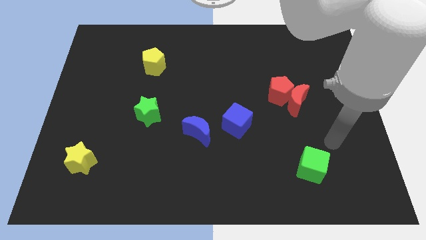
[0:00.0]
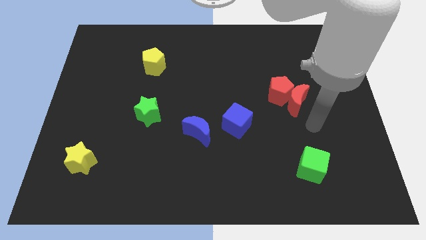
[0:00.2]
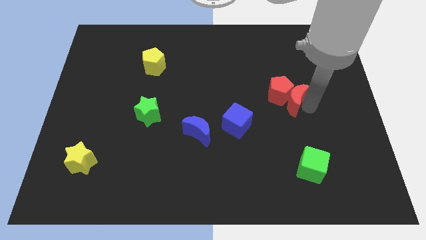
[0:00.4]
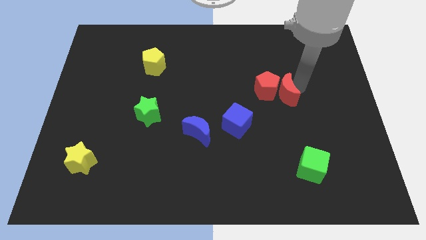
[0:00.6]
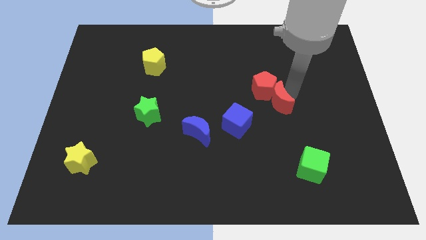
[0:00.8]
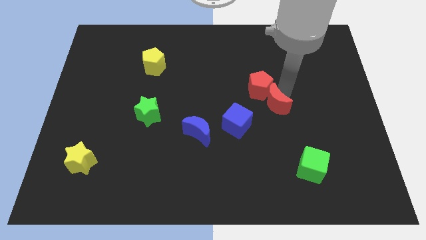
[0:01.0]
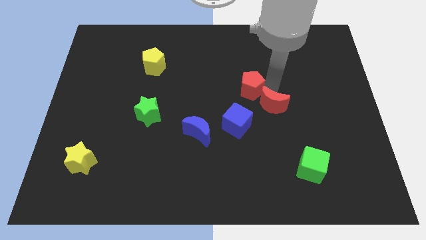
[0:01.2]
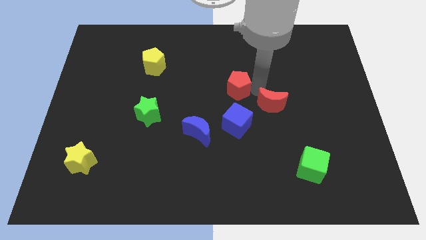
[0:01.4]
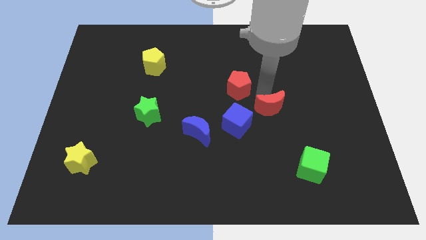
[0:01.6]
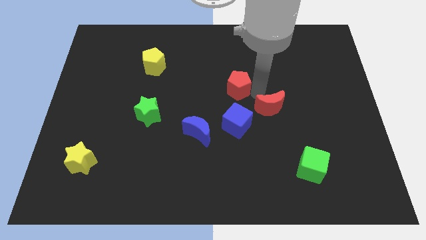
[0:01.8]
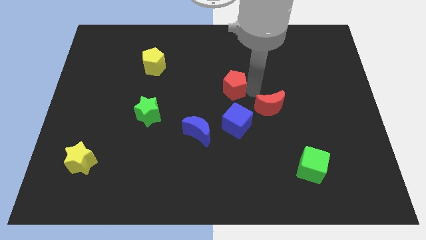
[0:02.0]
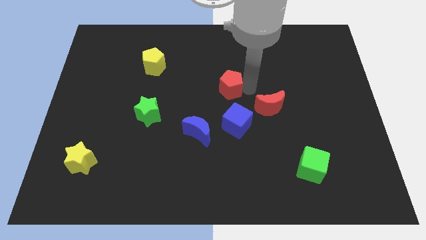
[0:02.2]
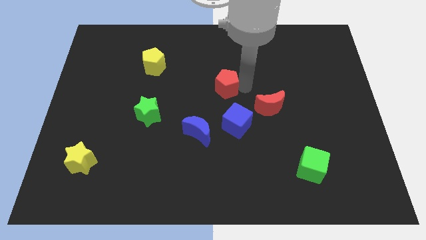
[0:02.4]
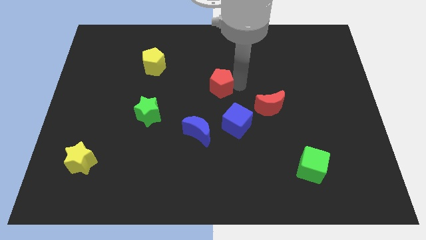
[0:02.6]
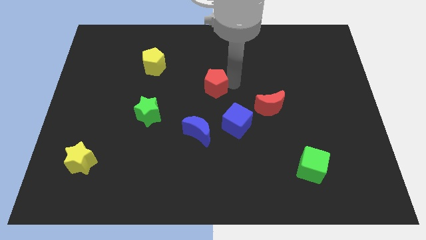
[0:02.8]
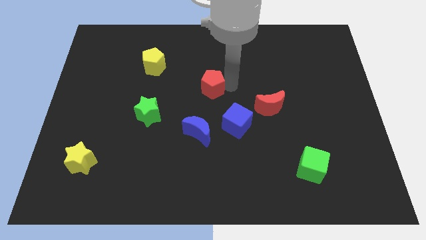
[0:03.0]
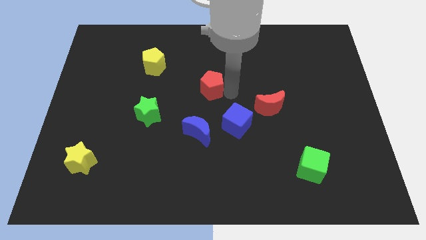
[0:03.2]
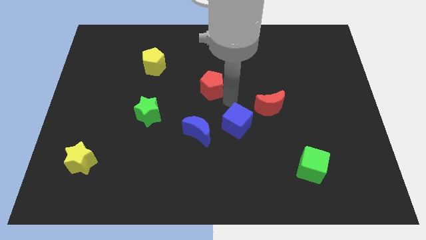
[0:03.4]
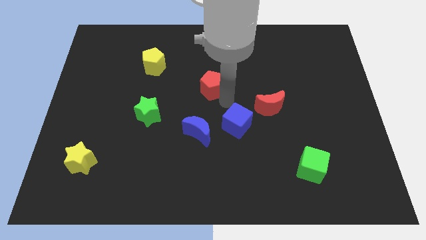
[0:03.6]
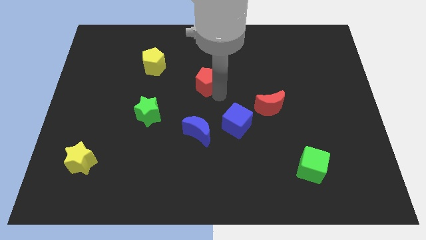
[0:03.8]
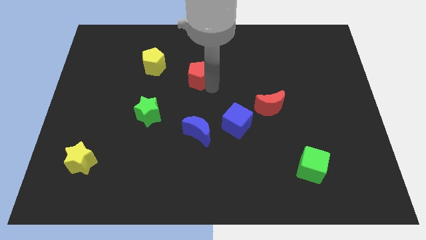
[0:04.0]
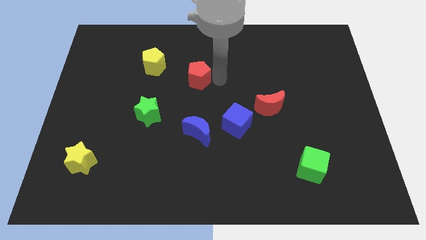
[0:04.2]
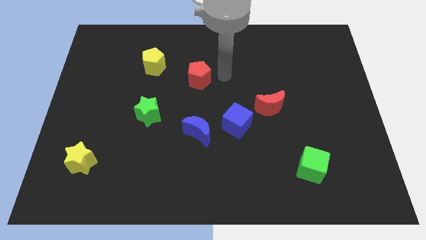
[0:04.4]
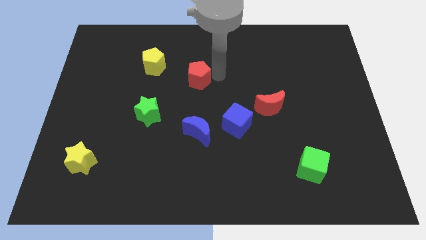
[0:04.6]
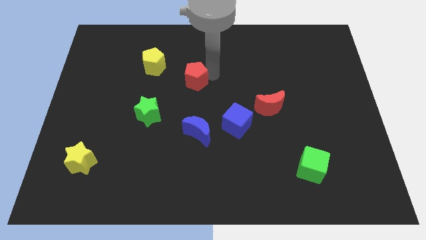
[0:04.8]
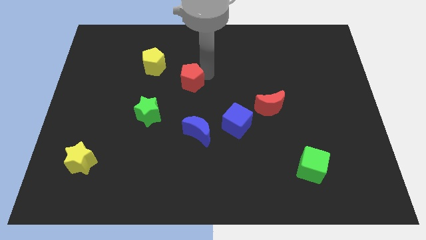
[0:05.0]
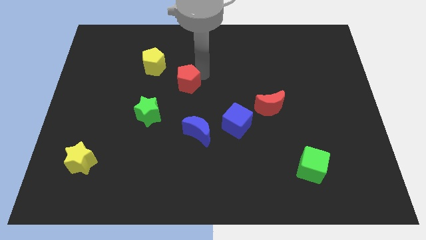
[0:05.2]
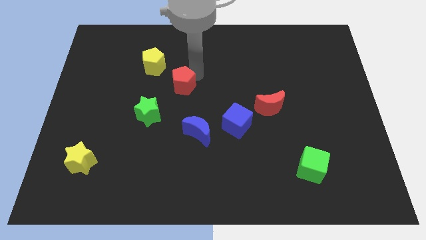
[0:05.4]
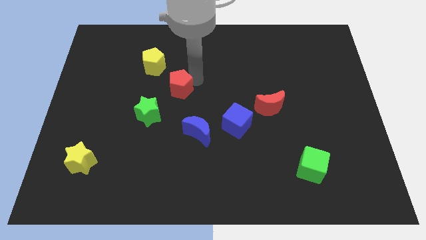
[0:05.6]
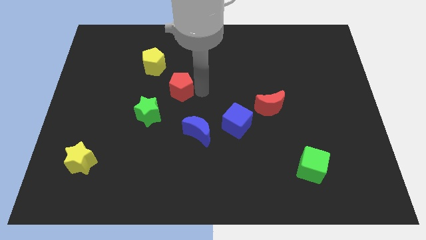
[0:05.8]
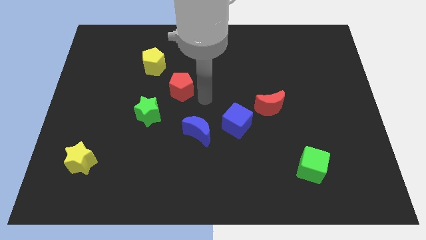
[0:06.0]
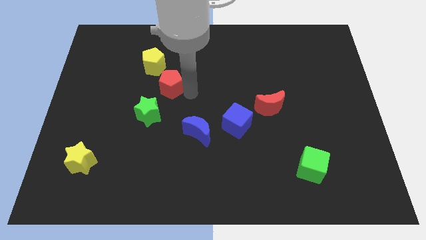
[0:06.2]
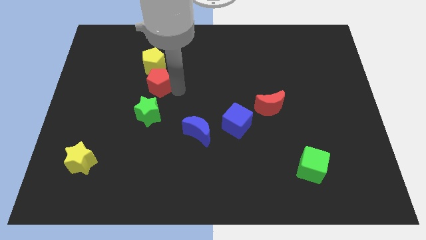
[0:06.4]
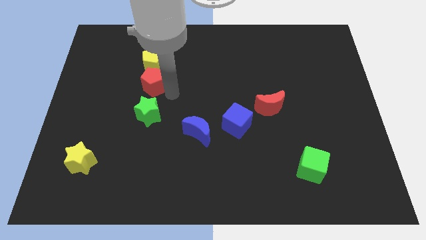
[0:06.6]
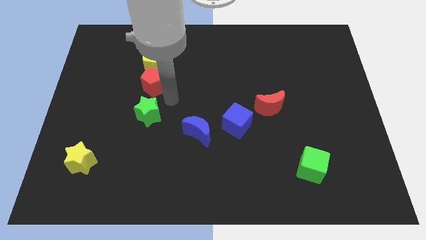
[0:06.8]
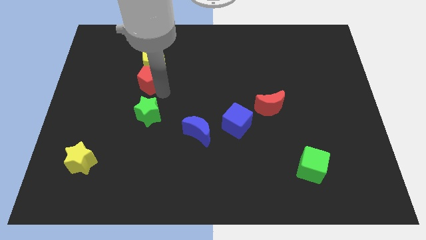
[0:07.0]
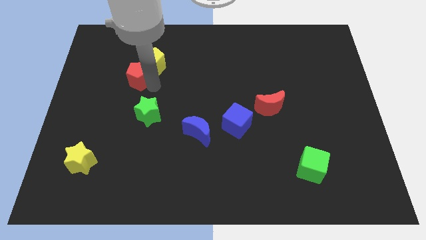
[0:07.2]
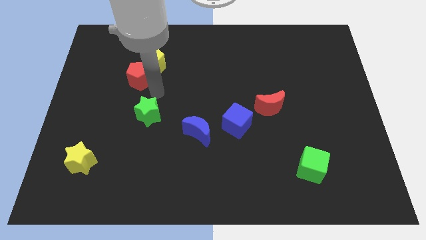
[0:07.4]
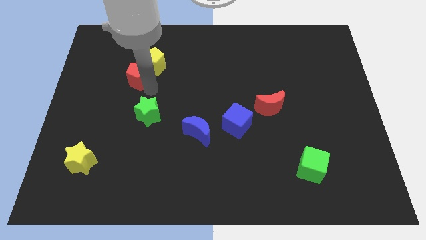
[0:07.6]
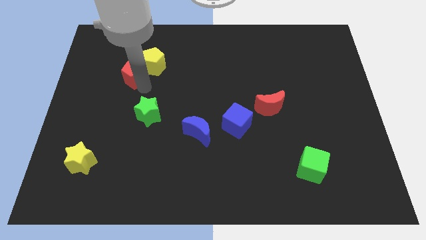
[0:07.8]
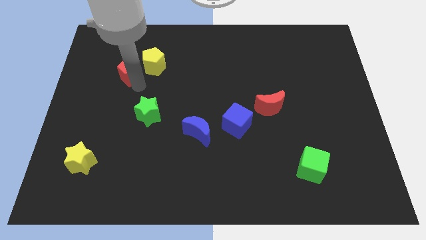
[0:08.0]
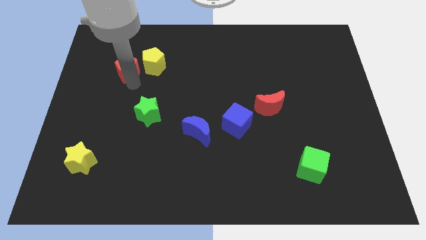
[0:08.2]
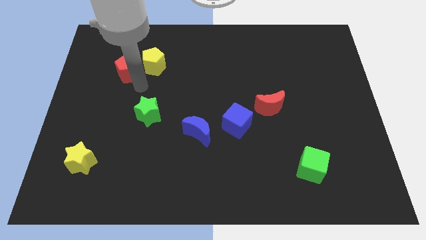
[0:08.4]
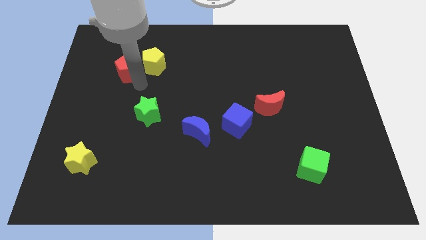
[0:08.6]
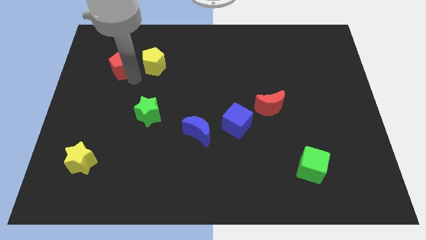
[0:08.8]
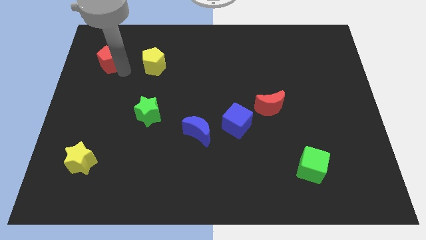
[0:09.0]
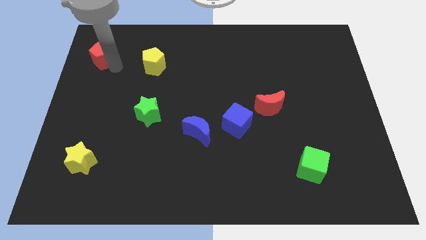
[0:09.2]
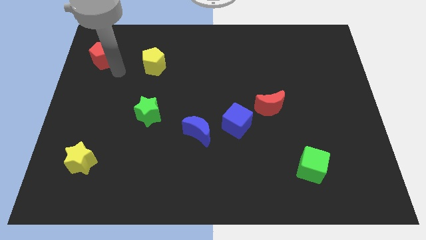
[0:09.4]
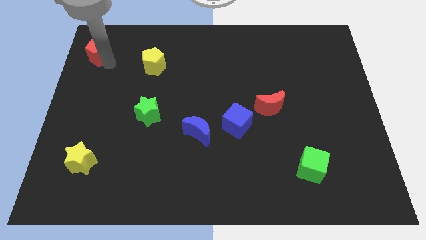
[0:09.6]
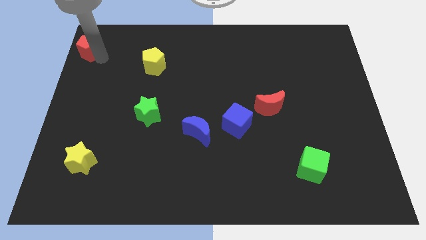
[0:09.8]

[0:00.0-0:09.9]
put the red pentagon to the upper left corner

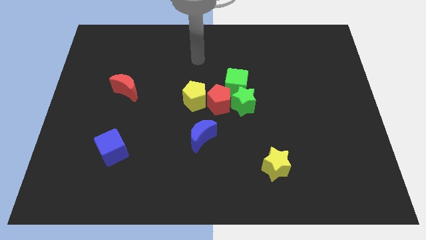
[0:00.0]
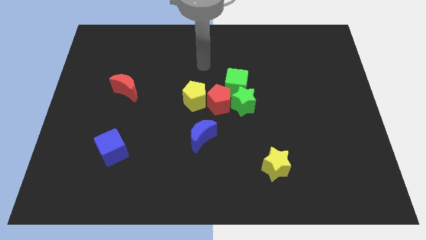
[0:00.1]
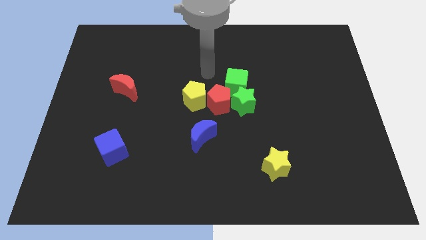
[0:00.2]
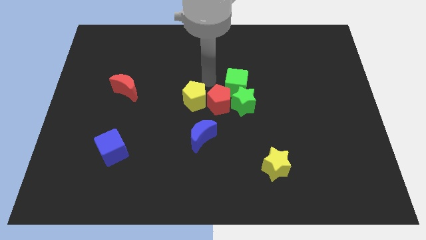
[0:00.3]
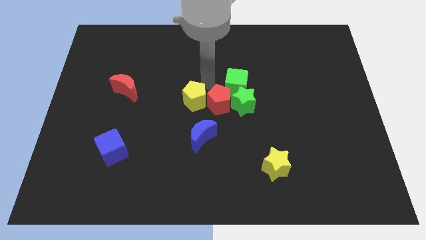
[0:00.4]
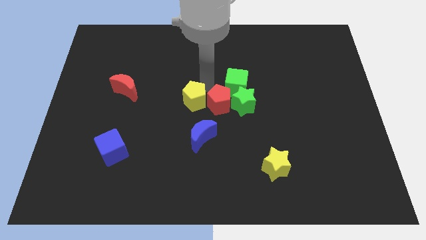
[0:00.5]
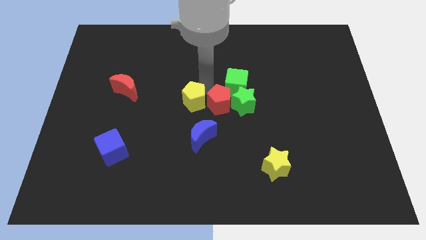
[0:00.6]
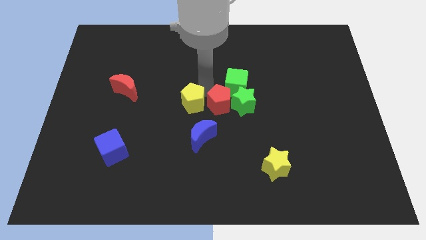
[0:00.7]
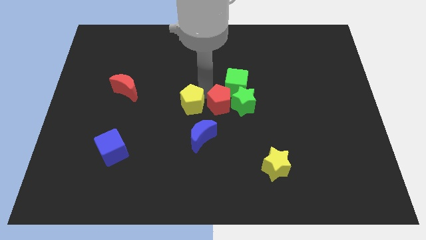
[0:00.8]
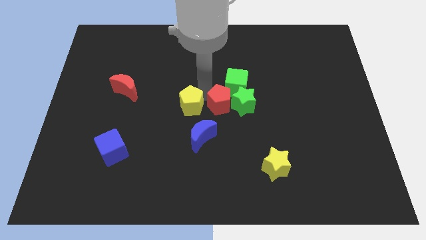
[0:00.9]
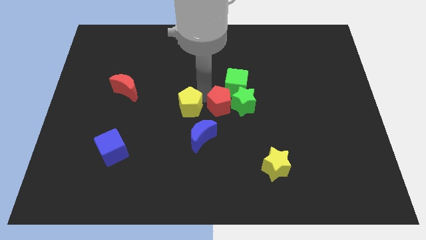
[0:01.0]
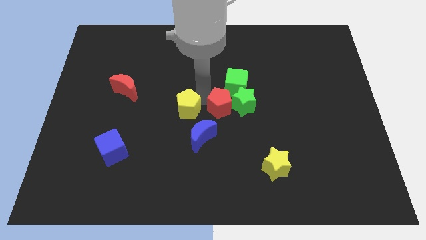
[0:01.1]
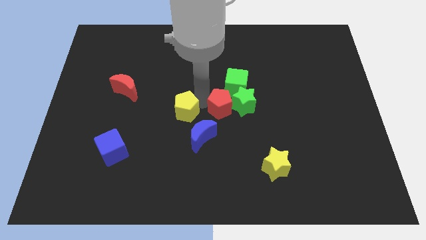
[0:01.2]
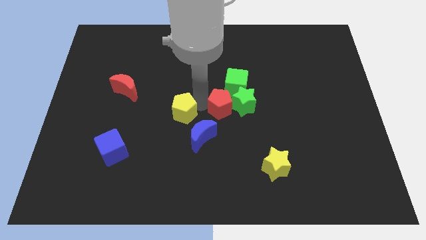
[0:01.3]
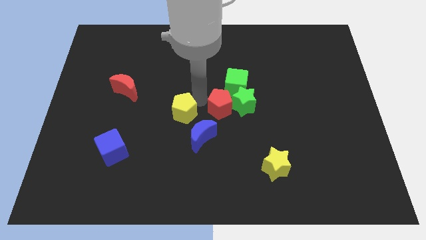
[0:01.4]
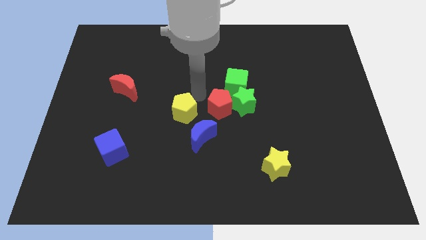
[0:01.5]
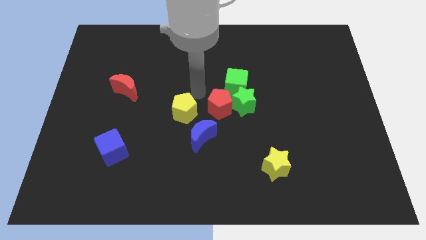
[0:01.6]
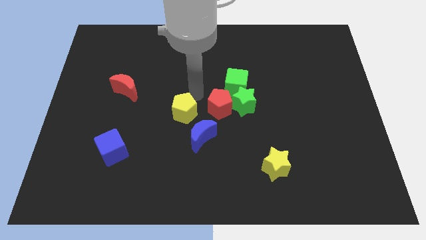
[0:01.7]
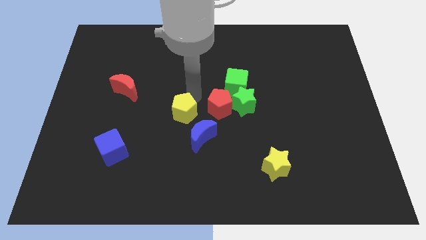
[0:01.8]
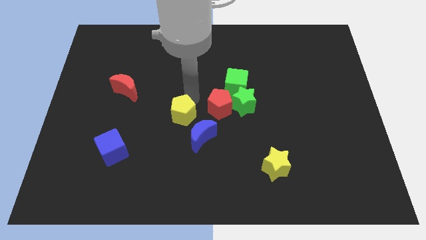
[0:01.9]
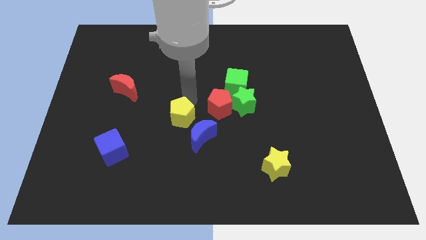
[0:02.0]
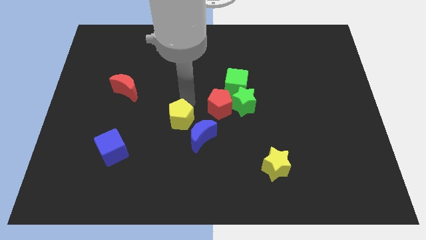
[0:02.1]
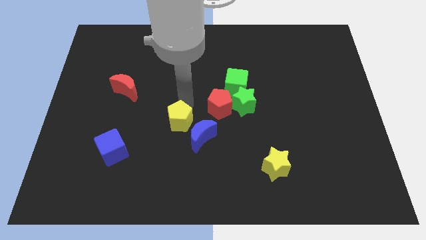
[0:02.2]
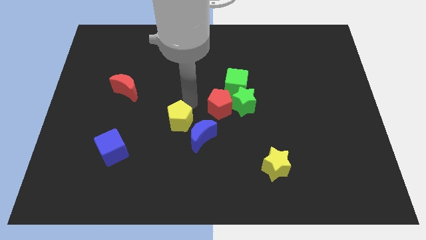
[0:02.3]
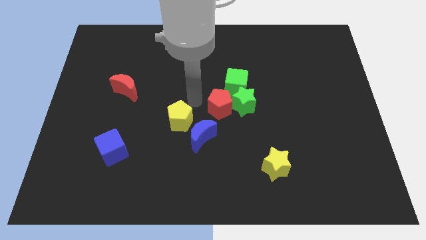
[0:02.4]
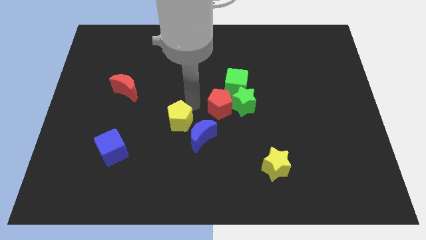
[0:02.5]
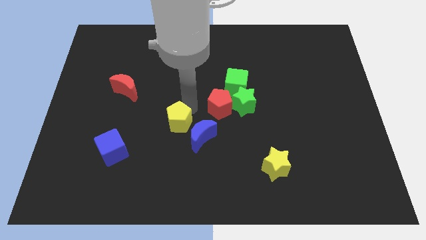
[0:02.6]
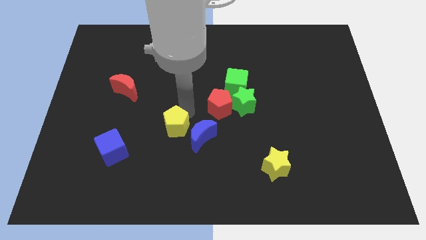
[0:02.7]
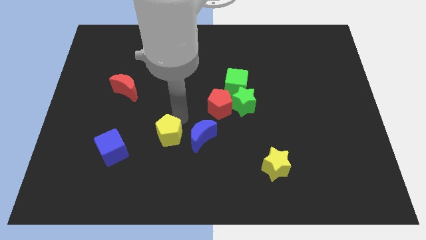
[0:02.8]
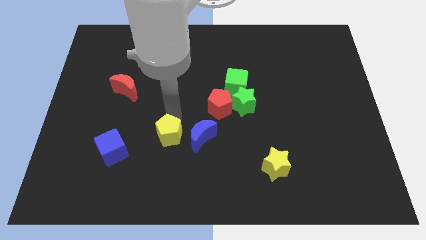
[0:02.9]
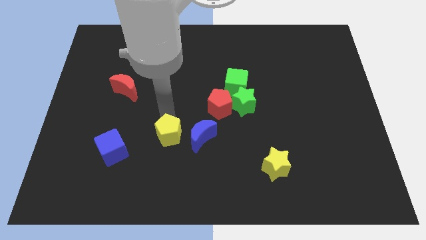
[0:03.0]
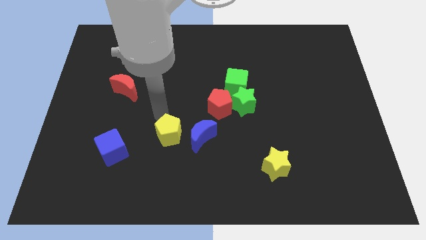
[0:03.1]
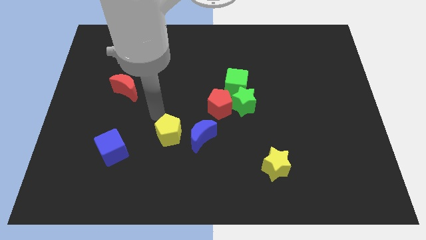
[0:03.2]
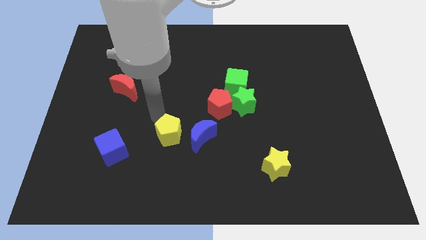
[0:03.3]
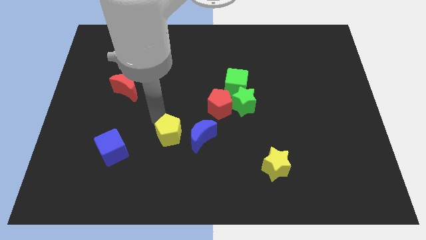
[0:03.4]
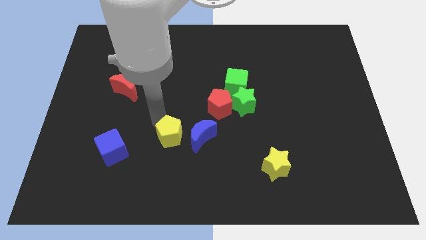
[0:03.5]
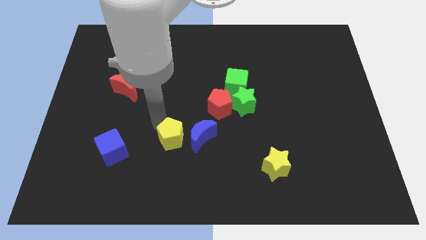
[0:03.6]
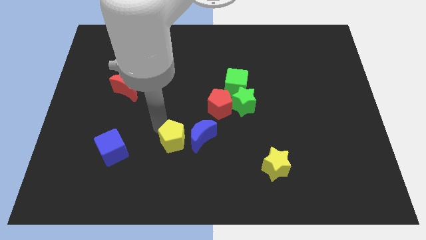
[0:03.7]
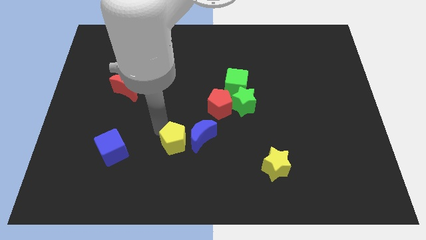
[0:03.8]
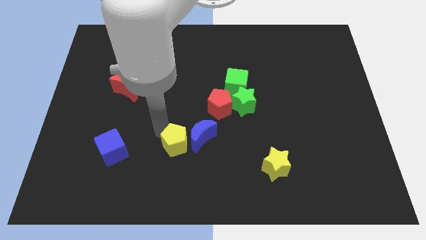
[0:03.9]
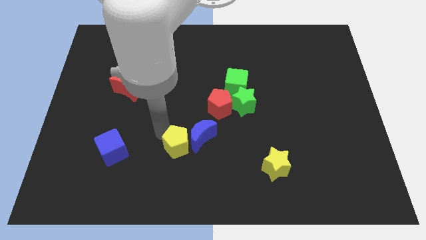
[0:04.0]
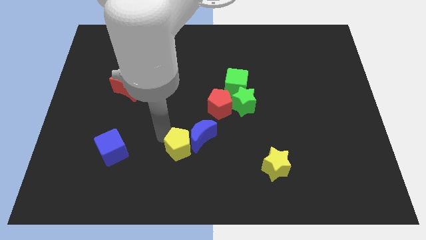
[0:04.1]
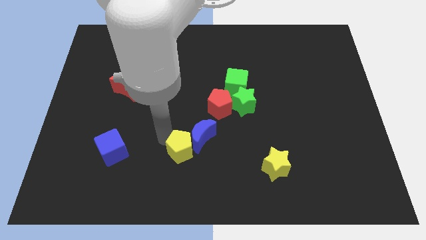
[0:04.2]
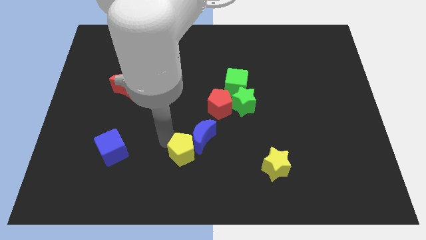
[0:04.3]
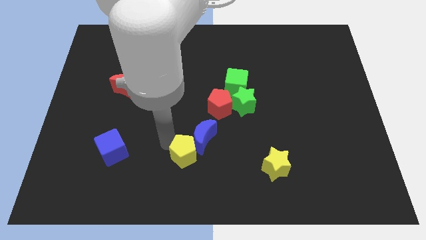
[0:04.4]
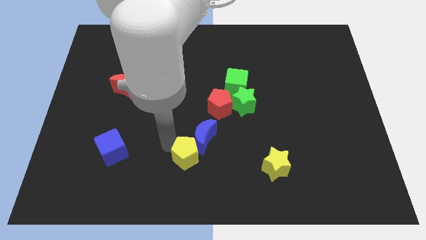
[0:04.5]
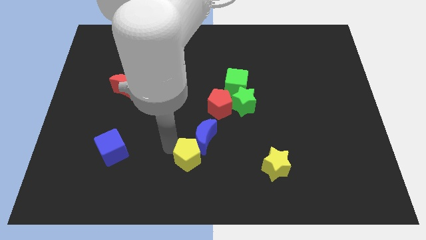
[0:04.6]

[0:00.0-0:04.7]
put the yellow pentagon to the bottom
